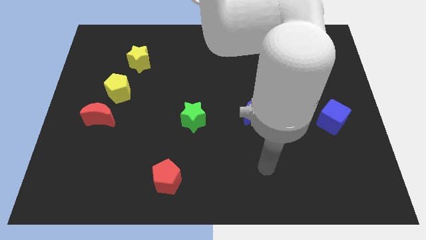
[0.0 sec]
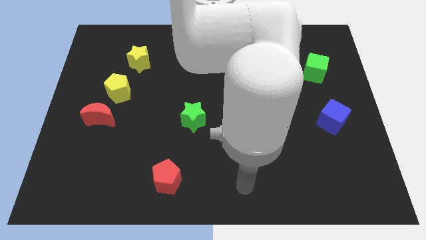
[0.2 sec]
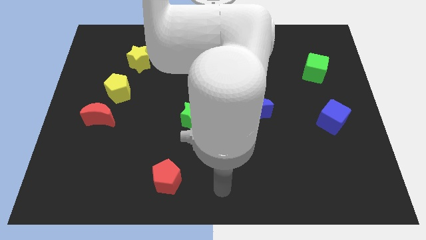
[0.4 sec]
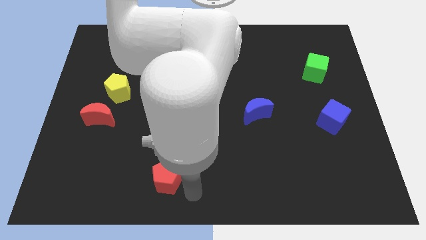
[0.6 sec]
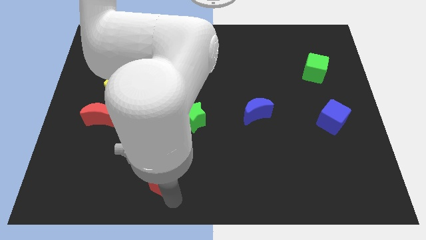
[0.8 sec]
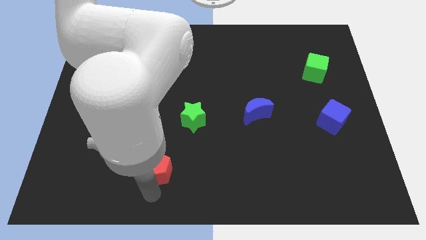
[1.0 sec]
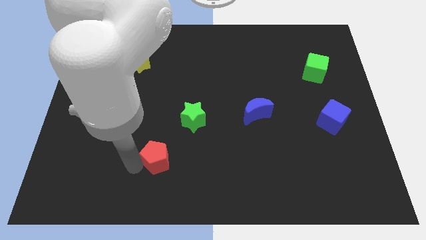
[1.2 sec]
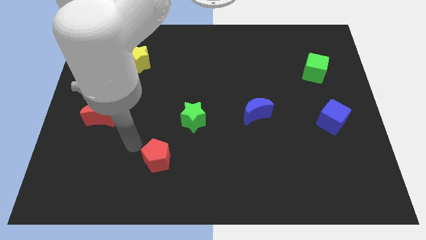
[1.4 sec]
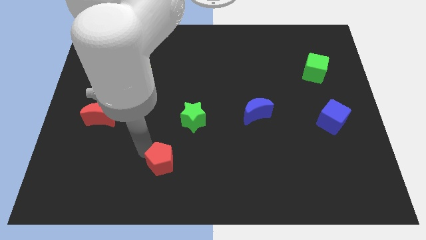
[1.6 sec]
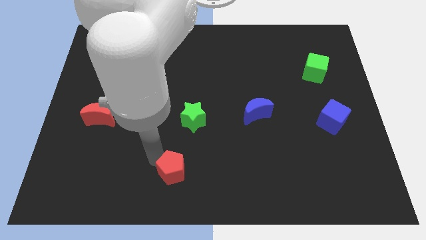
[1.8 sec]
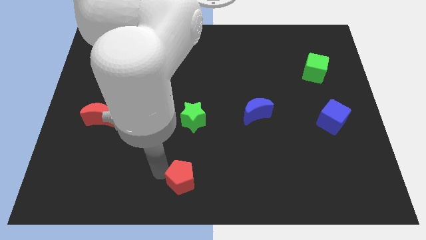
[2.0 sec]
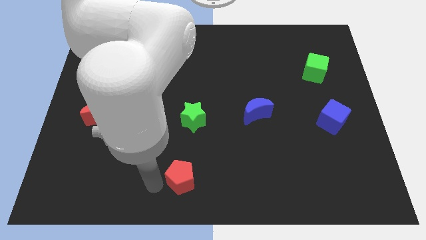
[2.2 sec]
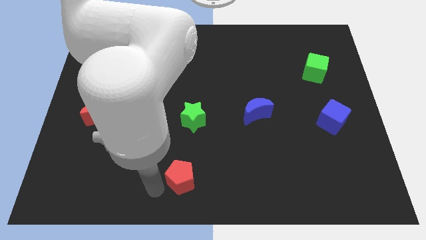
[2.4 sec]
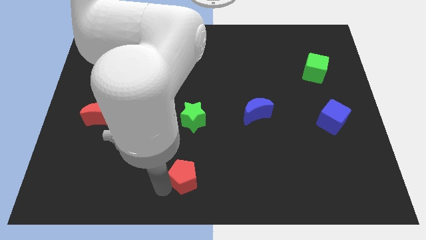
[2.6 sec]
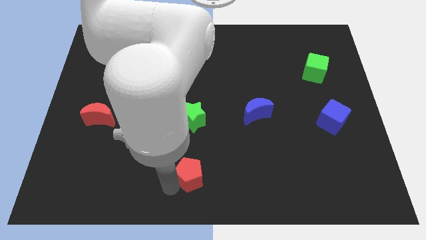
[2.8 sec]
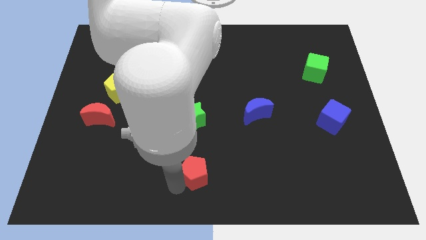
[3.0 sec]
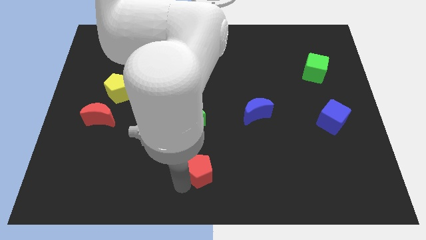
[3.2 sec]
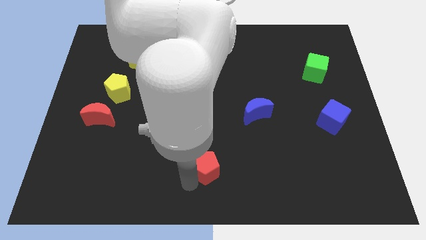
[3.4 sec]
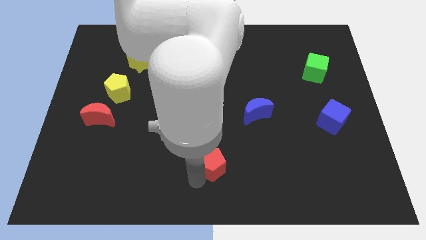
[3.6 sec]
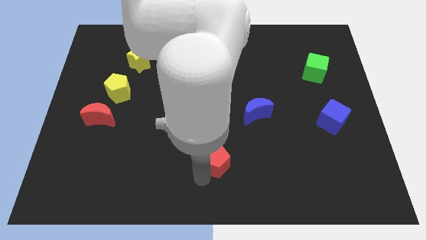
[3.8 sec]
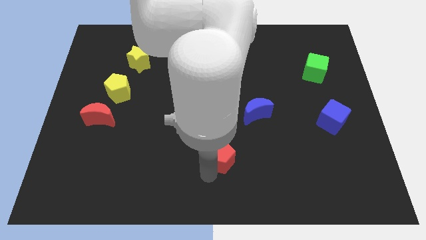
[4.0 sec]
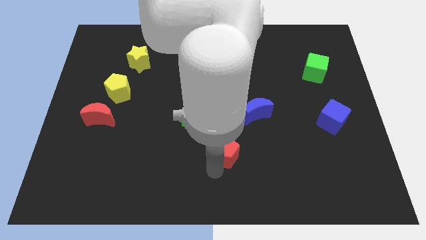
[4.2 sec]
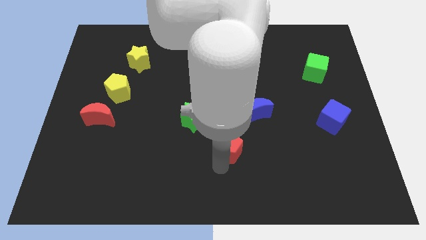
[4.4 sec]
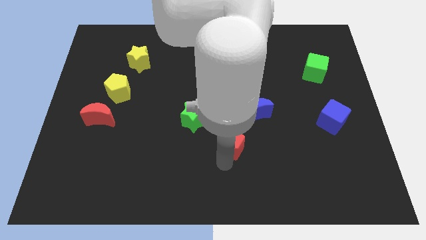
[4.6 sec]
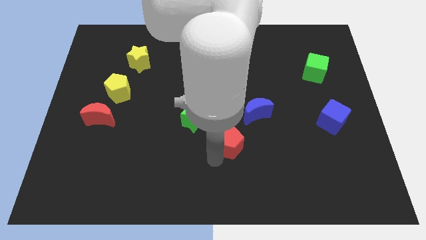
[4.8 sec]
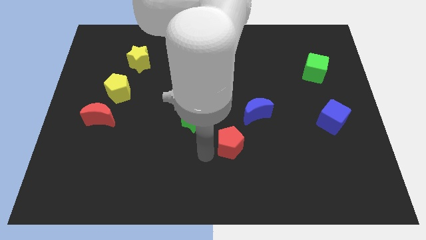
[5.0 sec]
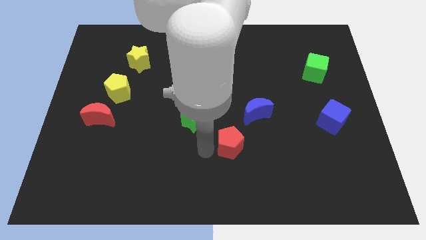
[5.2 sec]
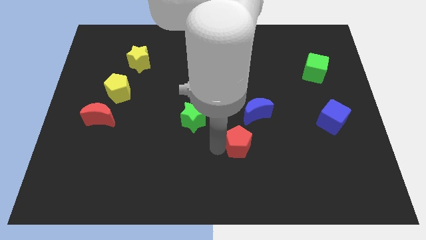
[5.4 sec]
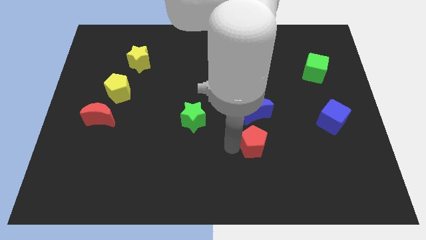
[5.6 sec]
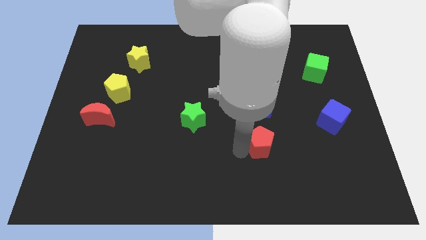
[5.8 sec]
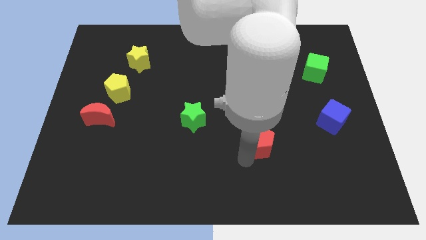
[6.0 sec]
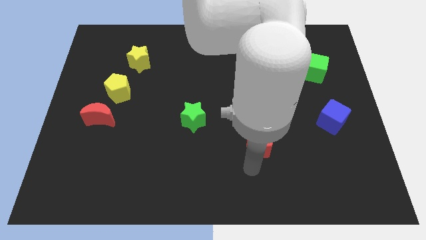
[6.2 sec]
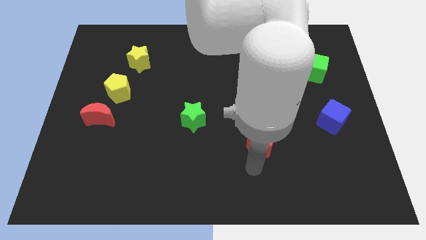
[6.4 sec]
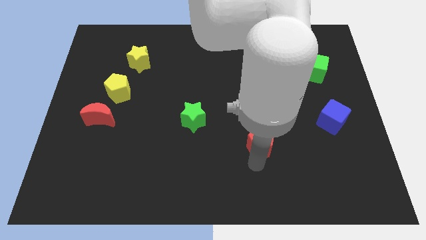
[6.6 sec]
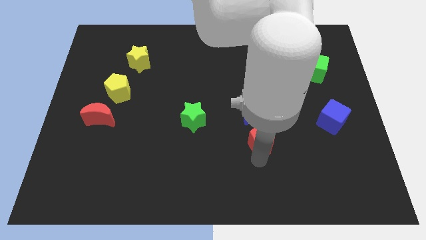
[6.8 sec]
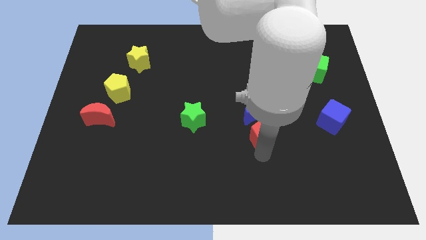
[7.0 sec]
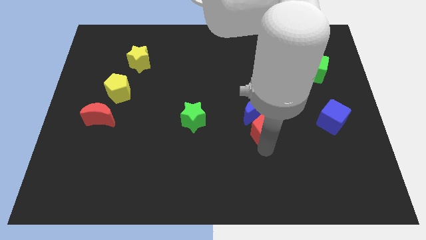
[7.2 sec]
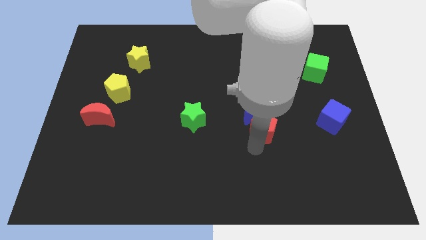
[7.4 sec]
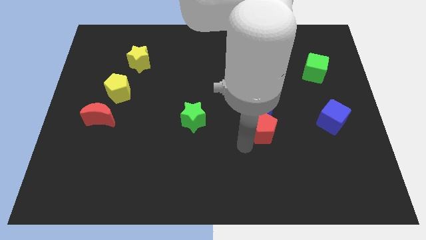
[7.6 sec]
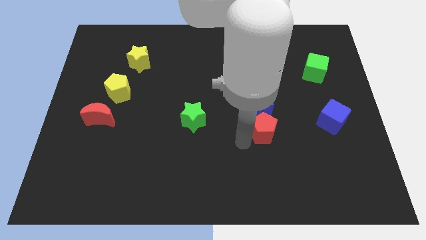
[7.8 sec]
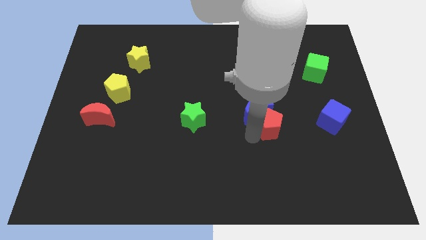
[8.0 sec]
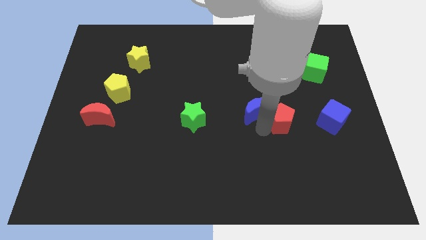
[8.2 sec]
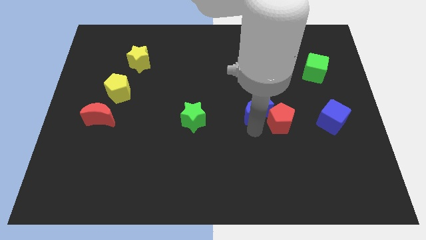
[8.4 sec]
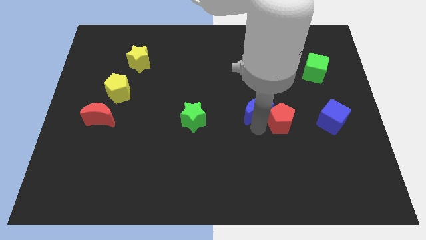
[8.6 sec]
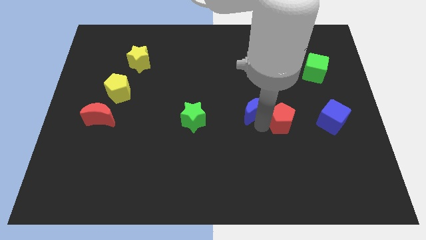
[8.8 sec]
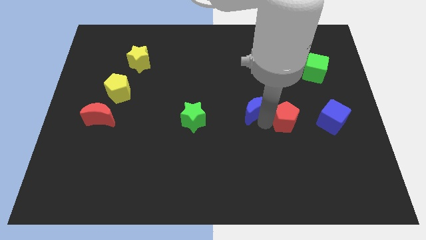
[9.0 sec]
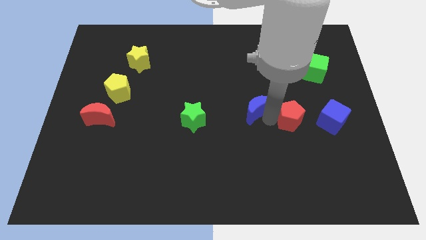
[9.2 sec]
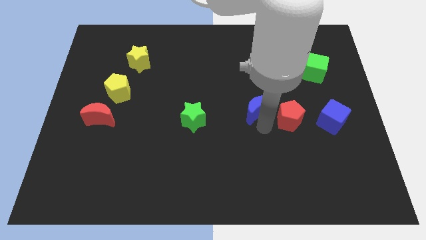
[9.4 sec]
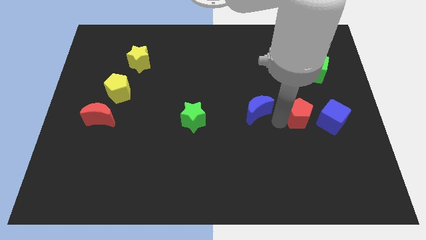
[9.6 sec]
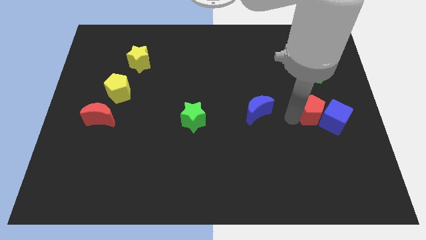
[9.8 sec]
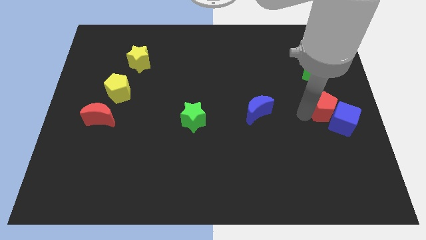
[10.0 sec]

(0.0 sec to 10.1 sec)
push the red pentagon to the center right

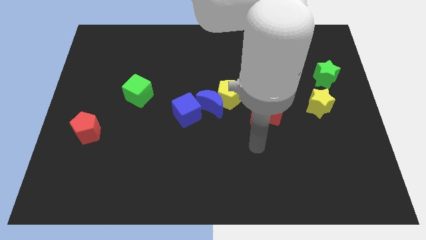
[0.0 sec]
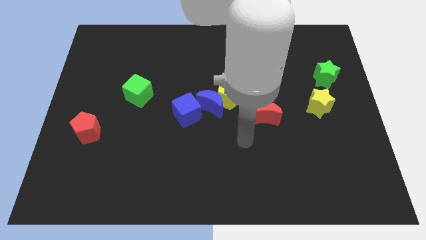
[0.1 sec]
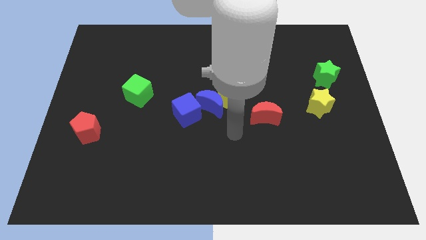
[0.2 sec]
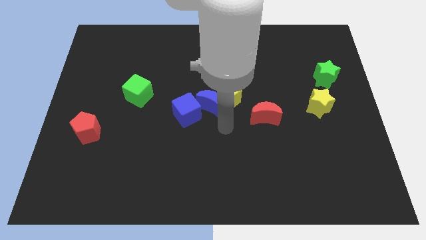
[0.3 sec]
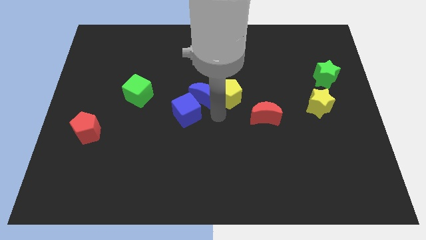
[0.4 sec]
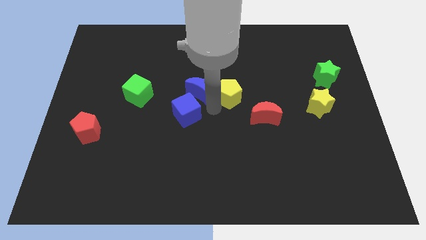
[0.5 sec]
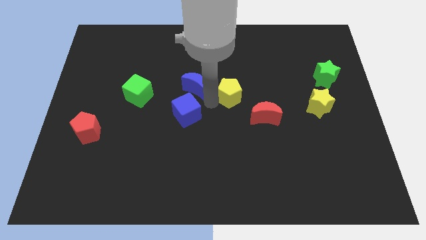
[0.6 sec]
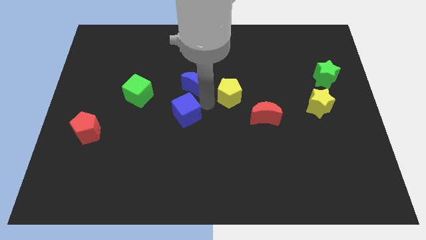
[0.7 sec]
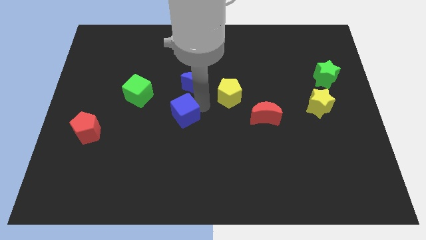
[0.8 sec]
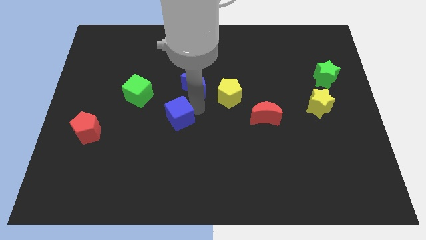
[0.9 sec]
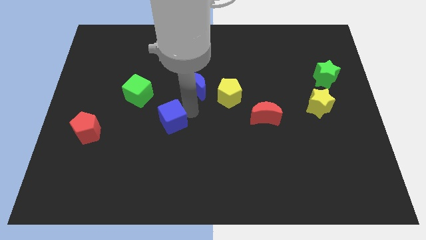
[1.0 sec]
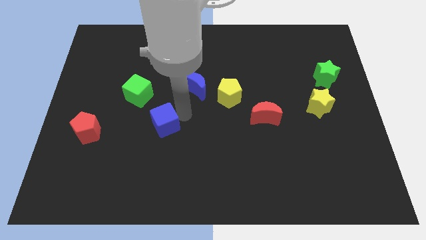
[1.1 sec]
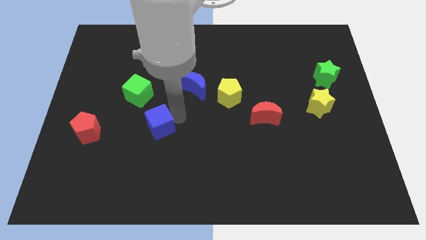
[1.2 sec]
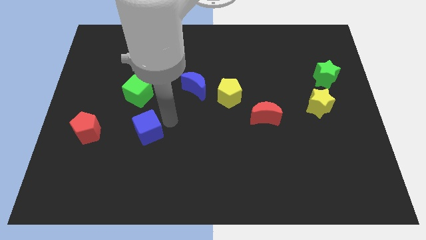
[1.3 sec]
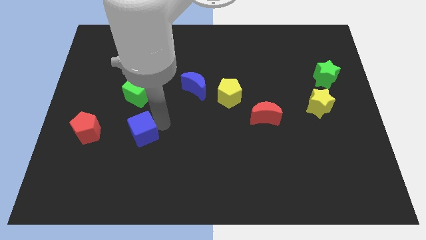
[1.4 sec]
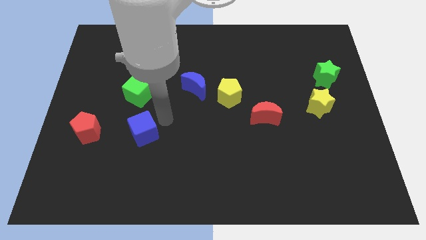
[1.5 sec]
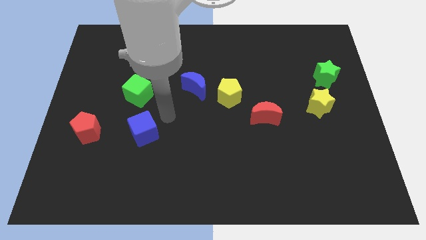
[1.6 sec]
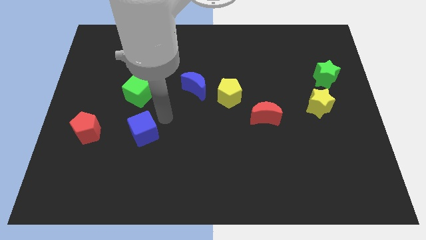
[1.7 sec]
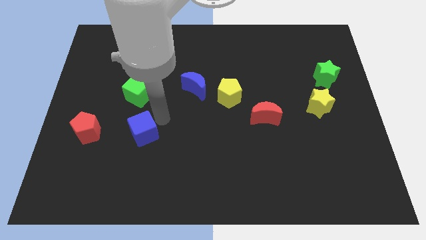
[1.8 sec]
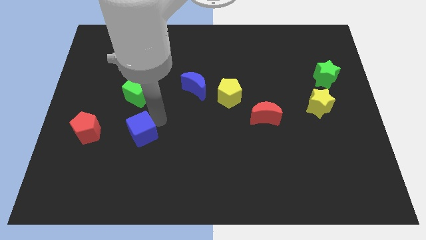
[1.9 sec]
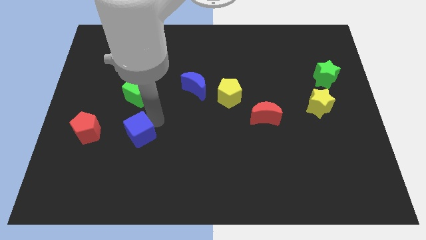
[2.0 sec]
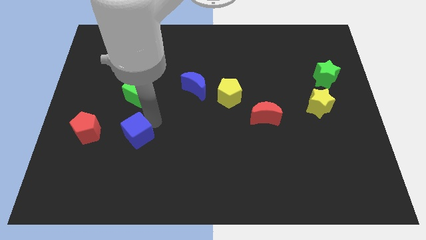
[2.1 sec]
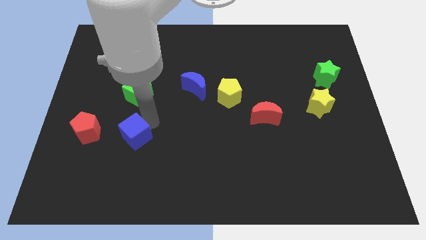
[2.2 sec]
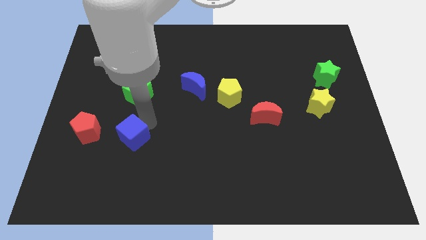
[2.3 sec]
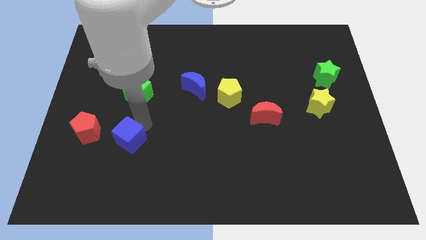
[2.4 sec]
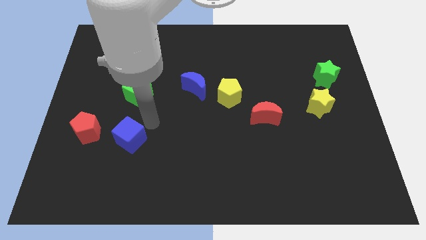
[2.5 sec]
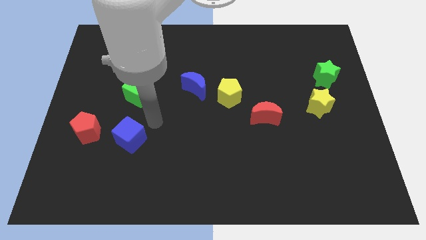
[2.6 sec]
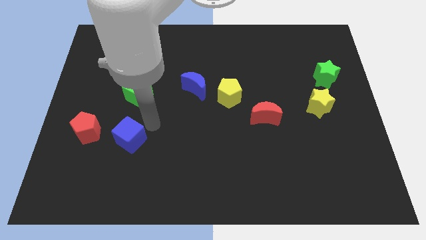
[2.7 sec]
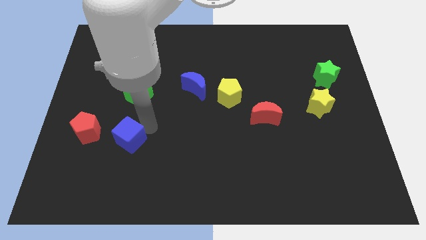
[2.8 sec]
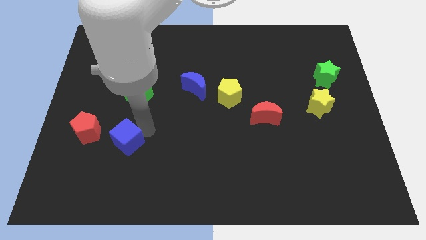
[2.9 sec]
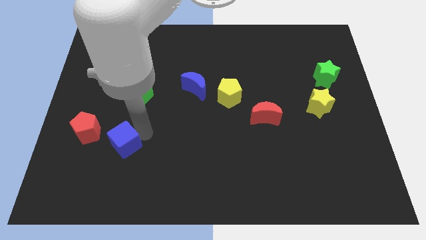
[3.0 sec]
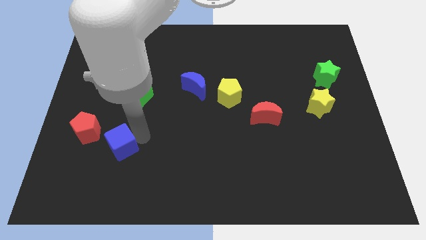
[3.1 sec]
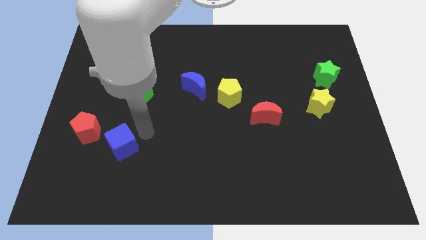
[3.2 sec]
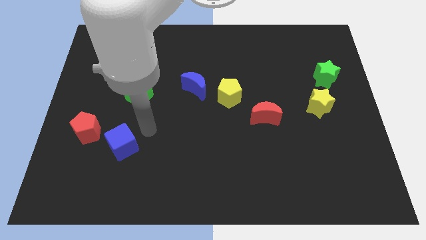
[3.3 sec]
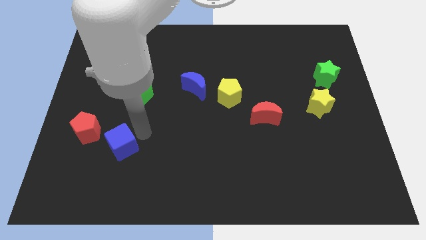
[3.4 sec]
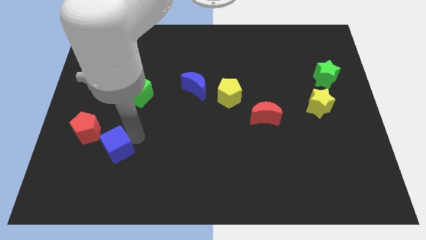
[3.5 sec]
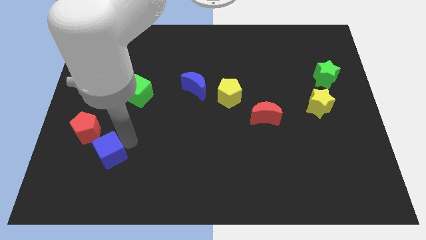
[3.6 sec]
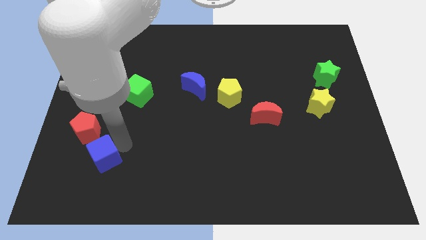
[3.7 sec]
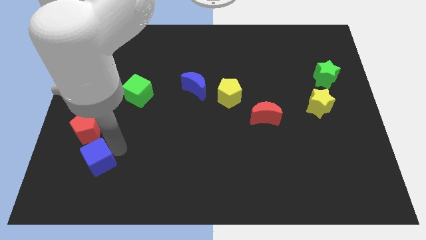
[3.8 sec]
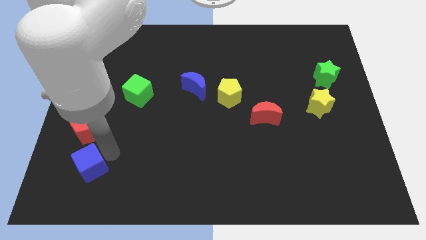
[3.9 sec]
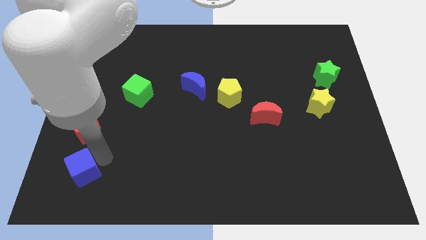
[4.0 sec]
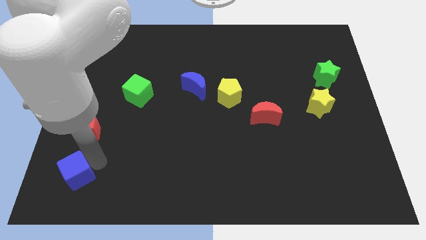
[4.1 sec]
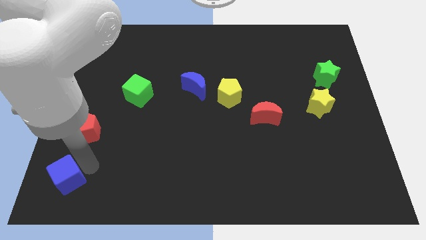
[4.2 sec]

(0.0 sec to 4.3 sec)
put the blue cube to the bottom left
